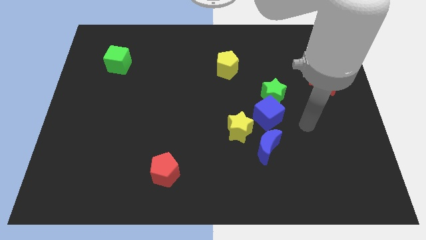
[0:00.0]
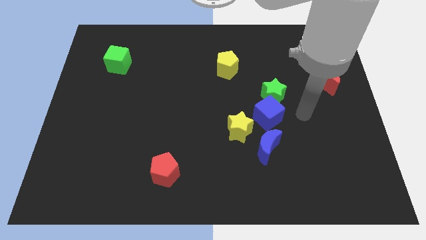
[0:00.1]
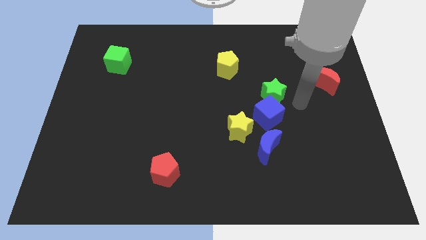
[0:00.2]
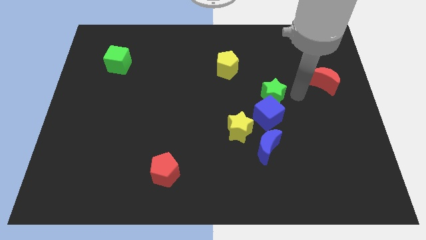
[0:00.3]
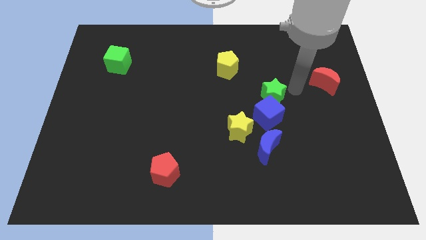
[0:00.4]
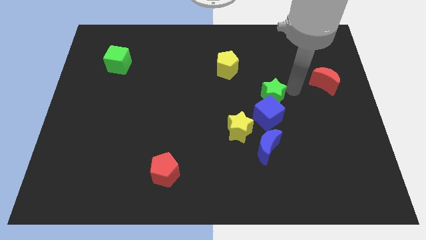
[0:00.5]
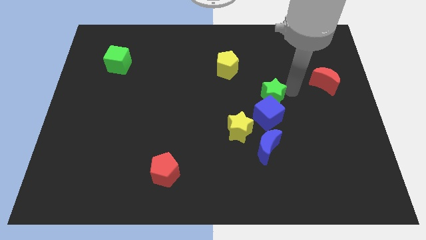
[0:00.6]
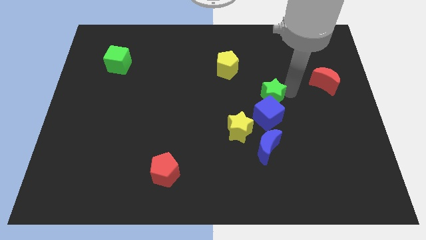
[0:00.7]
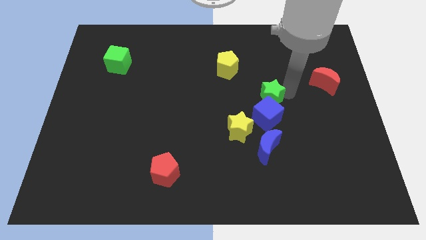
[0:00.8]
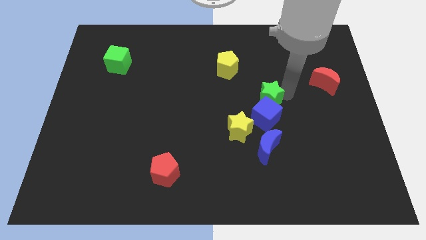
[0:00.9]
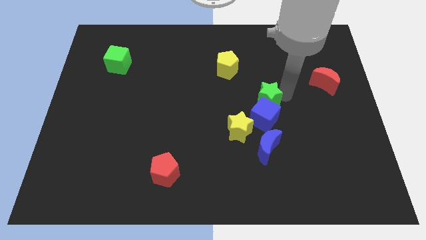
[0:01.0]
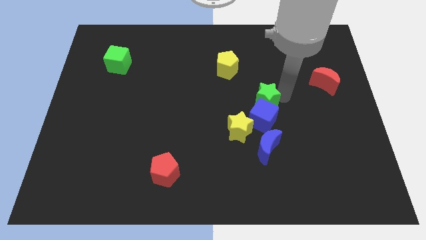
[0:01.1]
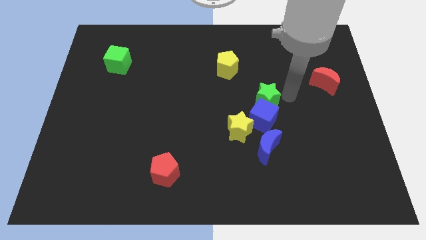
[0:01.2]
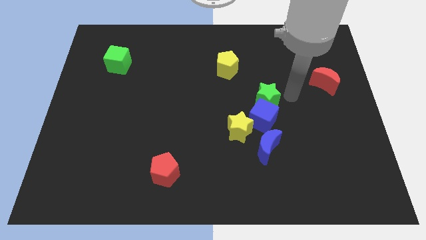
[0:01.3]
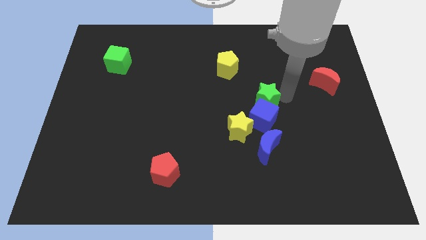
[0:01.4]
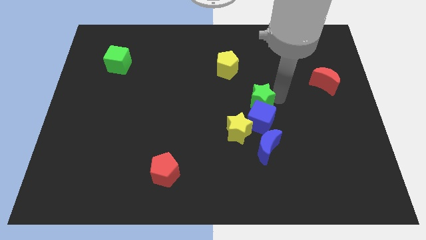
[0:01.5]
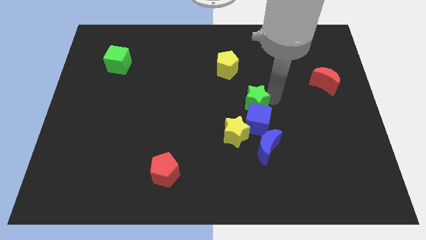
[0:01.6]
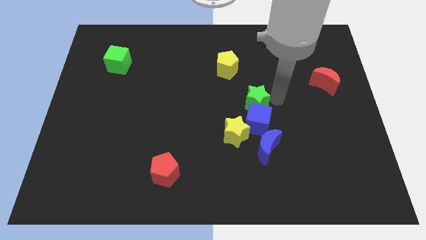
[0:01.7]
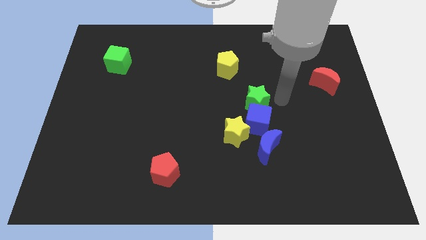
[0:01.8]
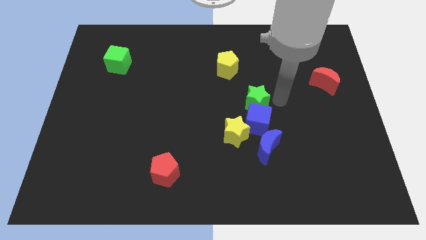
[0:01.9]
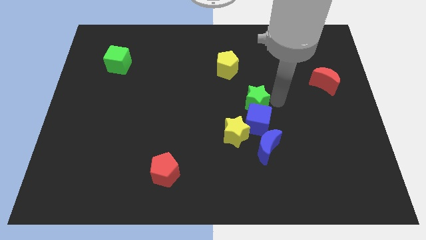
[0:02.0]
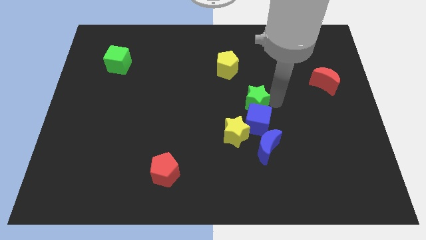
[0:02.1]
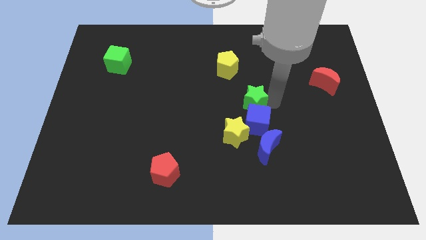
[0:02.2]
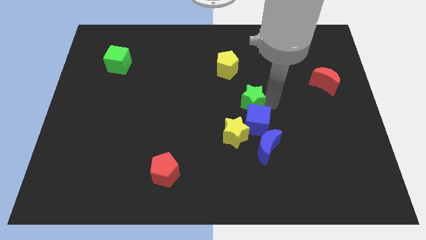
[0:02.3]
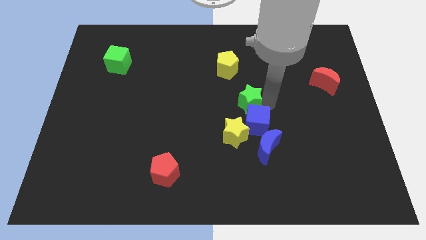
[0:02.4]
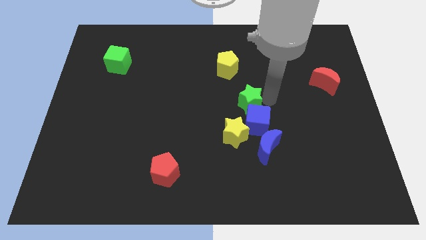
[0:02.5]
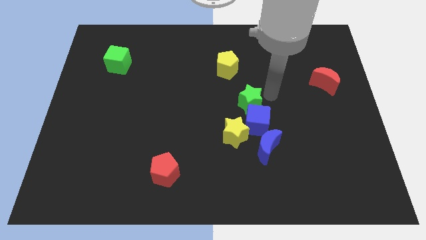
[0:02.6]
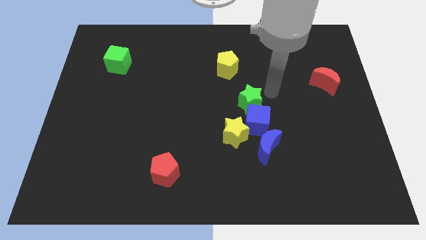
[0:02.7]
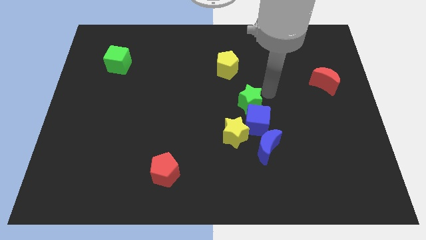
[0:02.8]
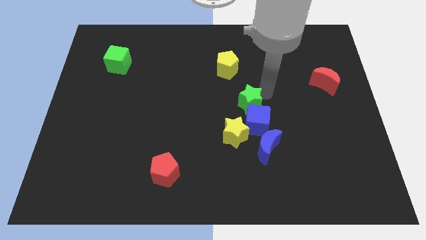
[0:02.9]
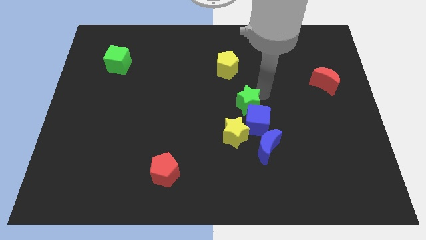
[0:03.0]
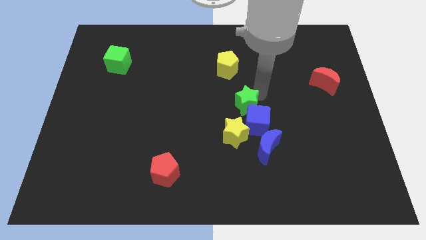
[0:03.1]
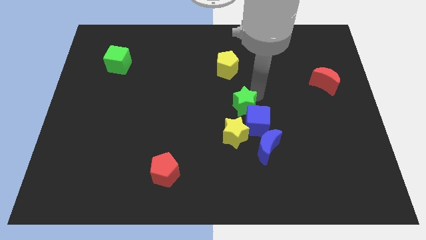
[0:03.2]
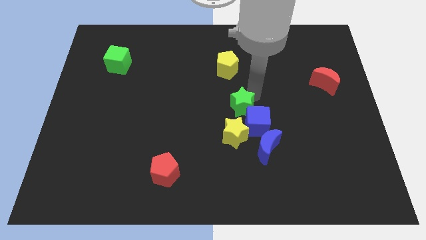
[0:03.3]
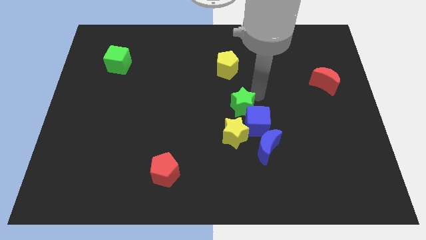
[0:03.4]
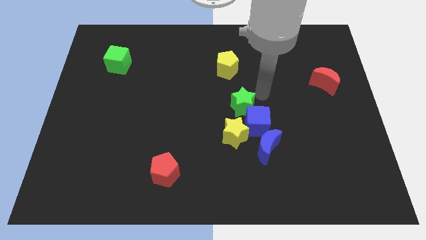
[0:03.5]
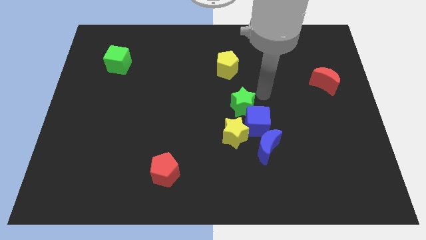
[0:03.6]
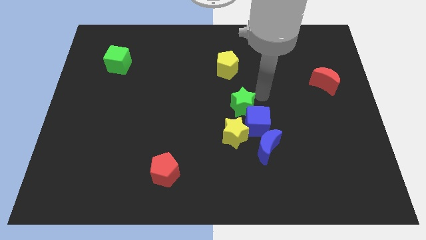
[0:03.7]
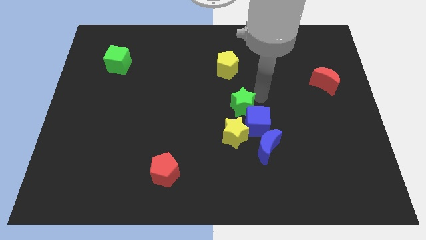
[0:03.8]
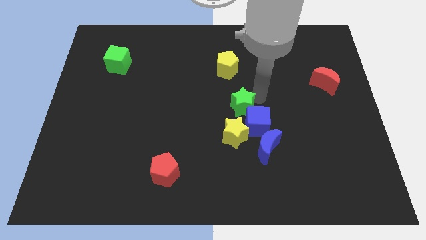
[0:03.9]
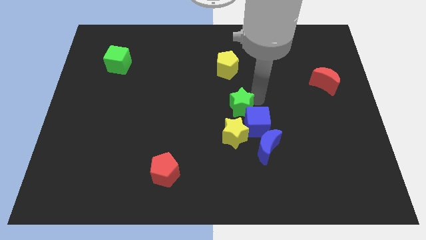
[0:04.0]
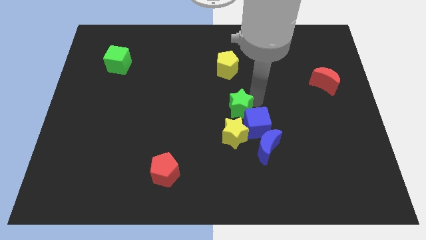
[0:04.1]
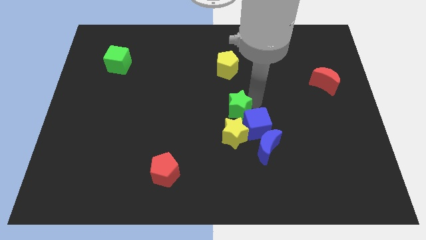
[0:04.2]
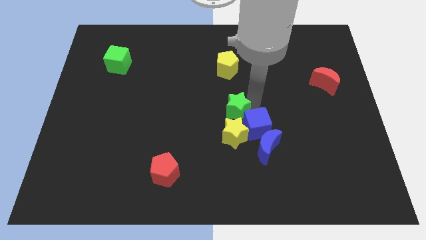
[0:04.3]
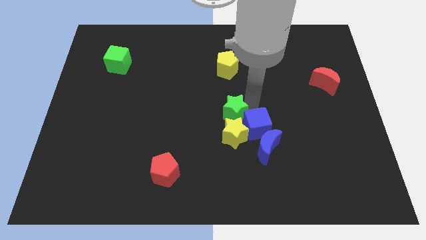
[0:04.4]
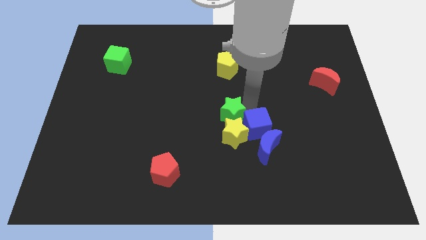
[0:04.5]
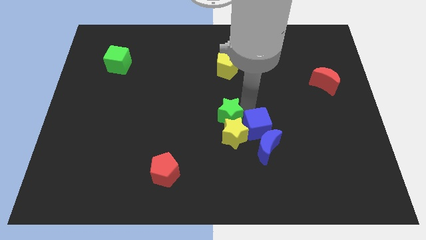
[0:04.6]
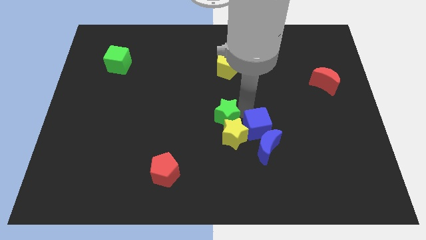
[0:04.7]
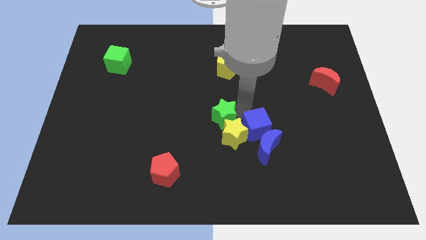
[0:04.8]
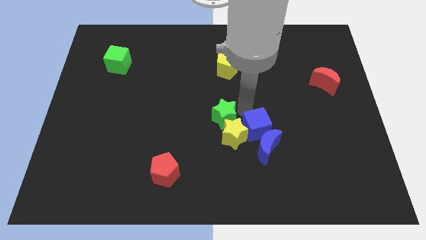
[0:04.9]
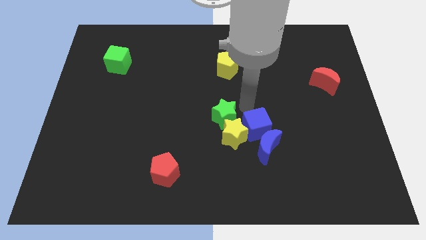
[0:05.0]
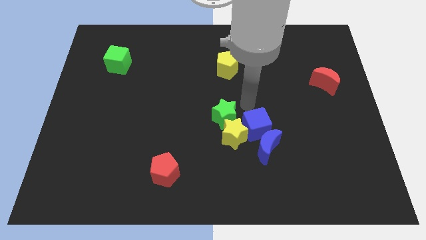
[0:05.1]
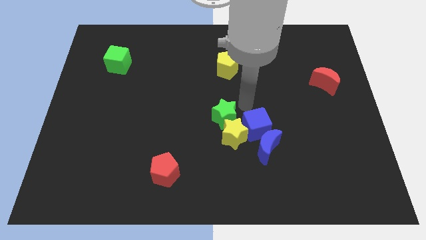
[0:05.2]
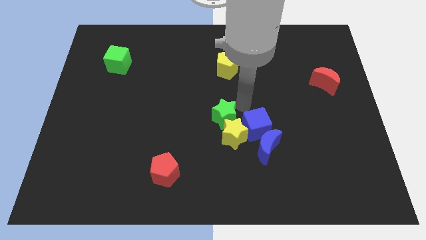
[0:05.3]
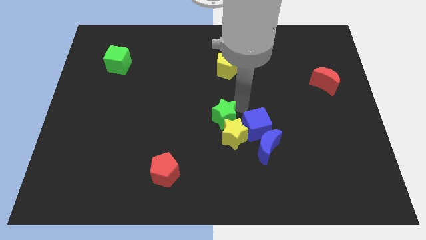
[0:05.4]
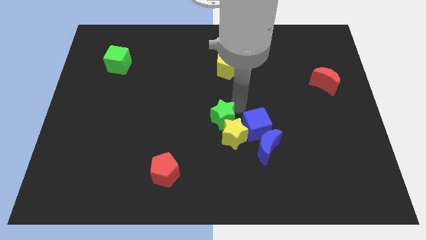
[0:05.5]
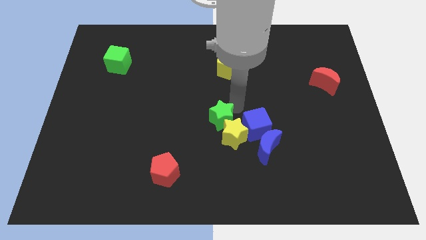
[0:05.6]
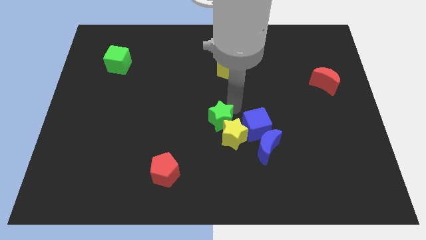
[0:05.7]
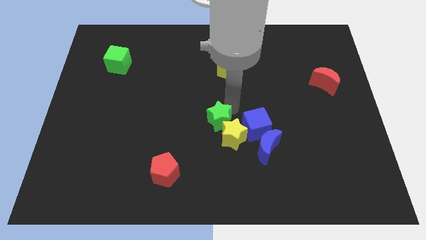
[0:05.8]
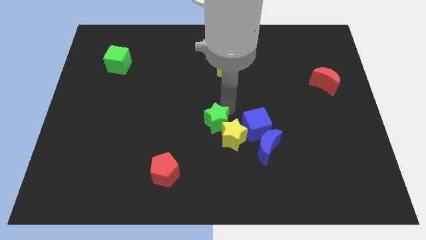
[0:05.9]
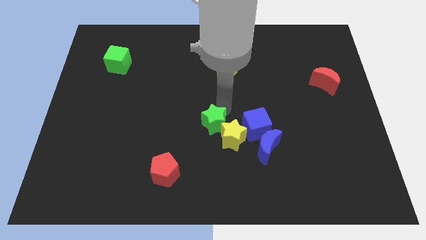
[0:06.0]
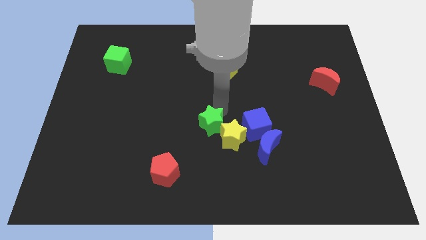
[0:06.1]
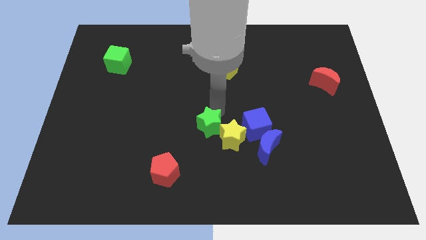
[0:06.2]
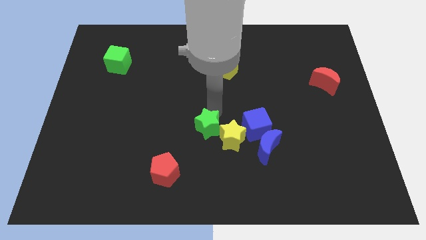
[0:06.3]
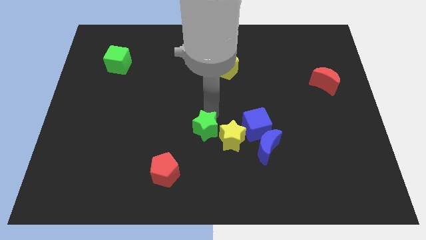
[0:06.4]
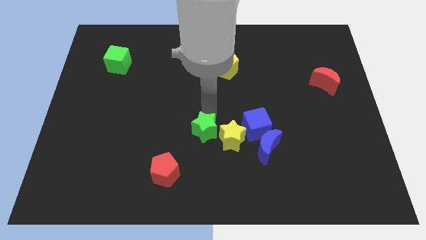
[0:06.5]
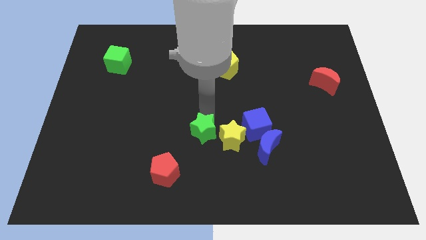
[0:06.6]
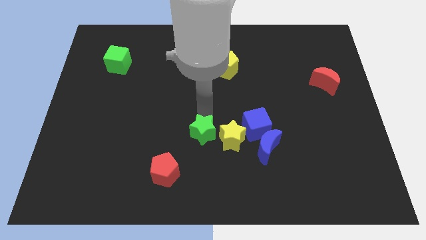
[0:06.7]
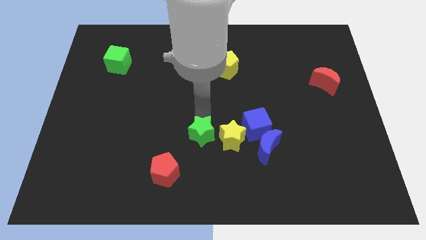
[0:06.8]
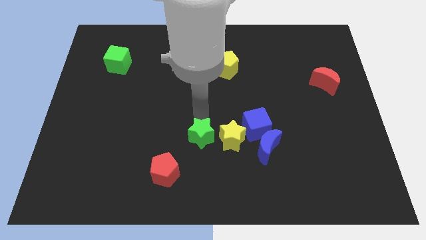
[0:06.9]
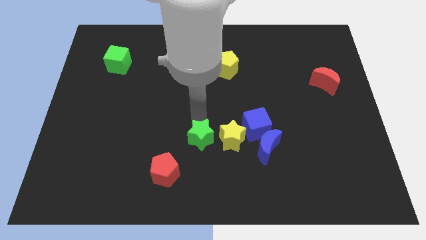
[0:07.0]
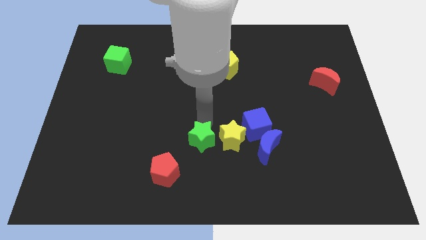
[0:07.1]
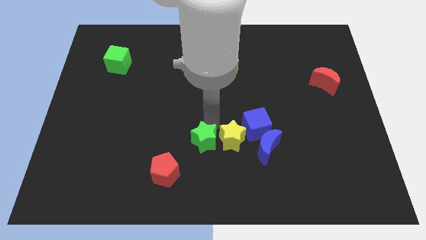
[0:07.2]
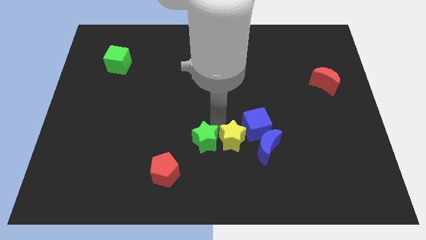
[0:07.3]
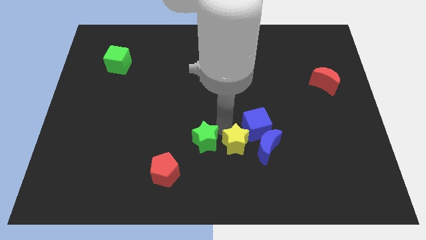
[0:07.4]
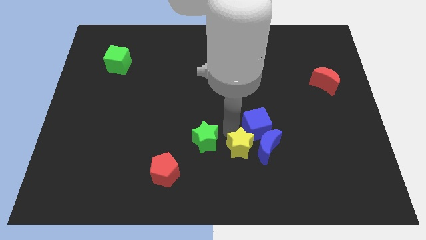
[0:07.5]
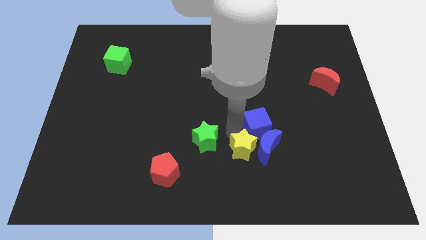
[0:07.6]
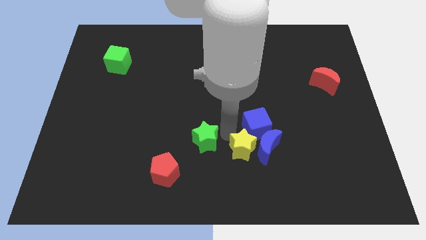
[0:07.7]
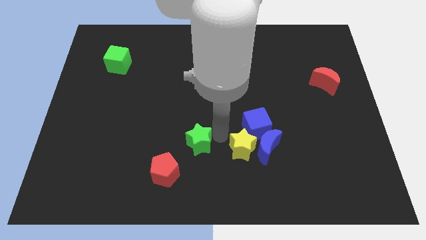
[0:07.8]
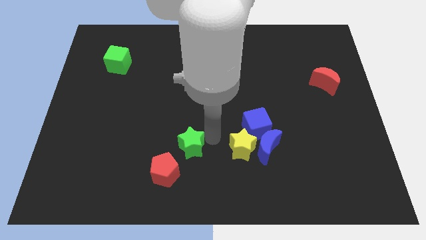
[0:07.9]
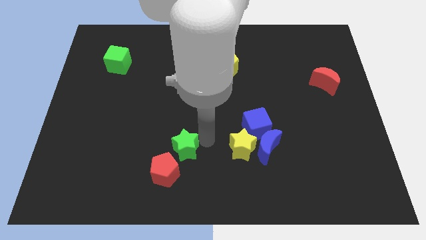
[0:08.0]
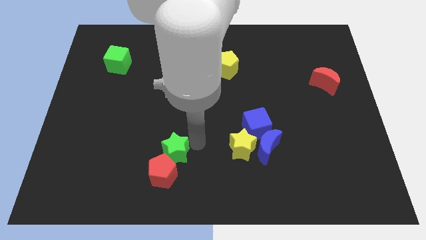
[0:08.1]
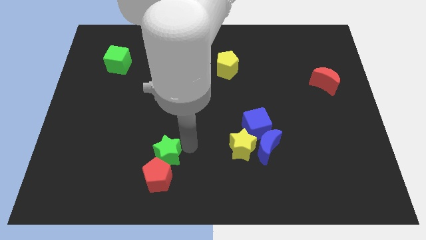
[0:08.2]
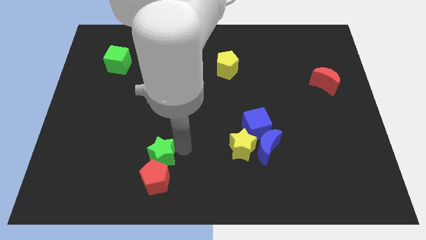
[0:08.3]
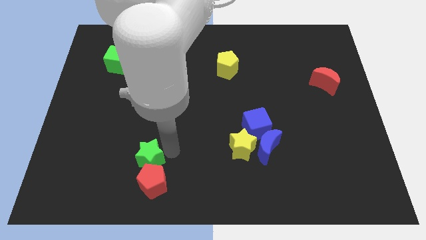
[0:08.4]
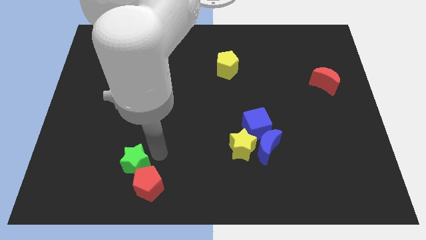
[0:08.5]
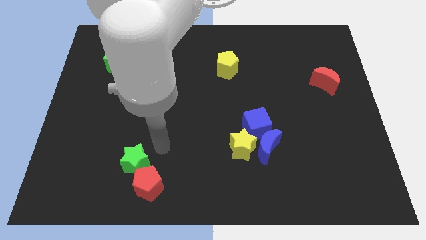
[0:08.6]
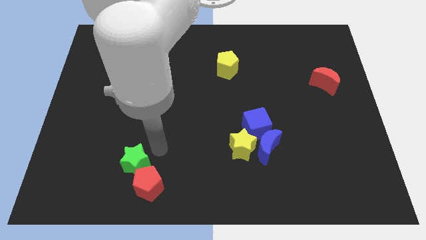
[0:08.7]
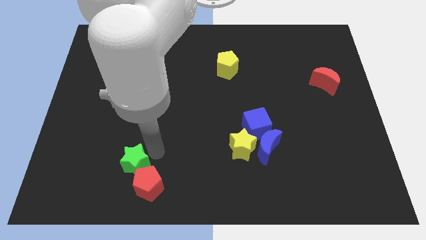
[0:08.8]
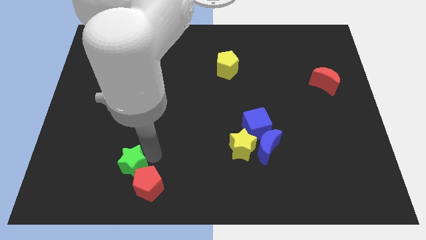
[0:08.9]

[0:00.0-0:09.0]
slide the green star just left of the red pentagon
